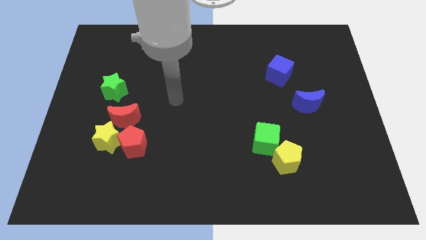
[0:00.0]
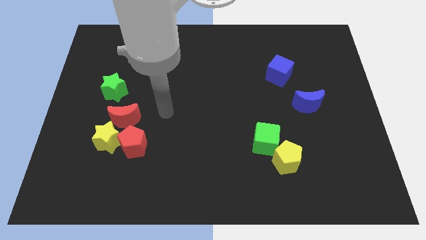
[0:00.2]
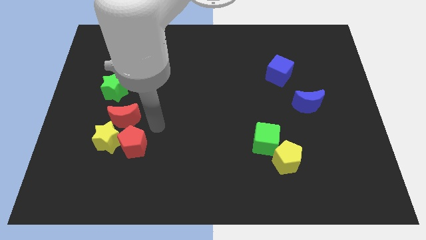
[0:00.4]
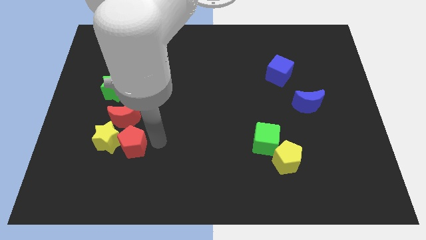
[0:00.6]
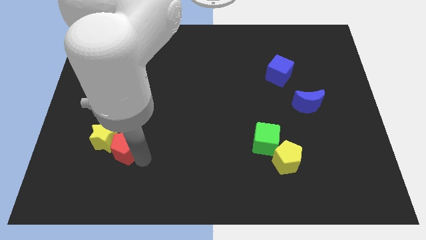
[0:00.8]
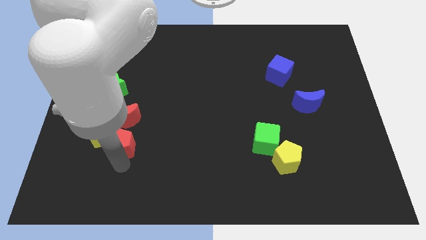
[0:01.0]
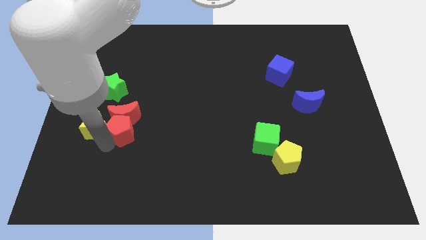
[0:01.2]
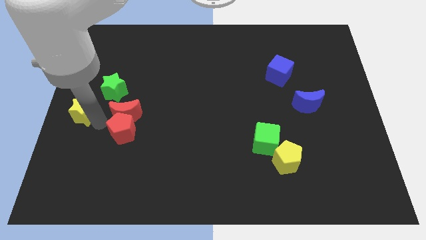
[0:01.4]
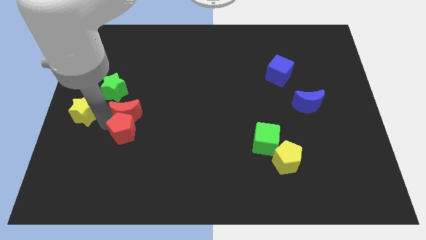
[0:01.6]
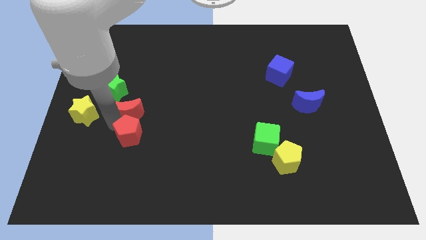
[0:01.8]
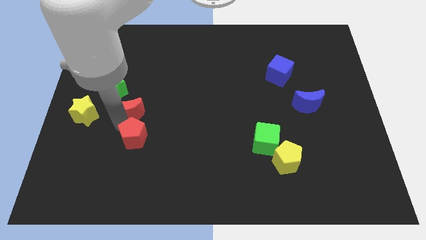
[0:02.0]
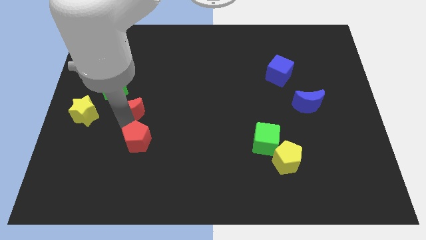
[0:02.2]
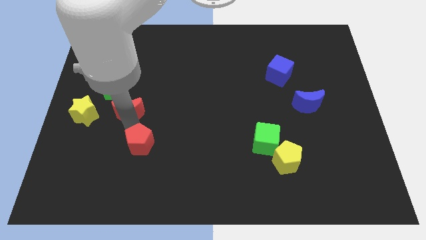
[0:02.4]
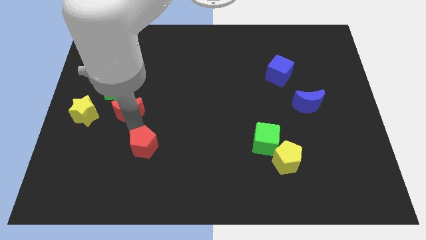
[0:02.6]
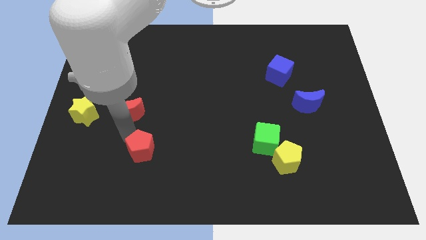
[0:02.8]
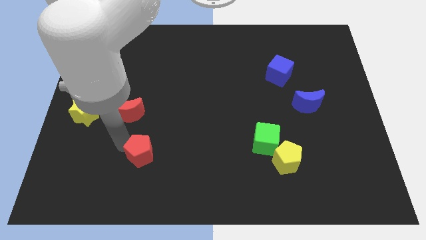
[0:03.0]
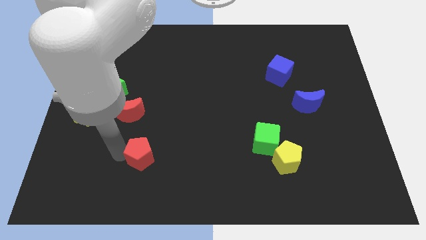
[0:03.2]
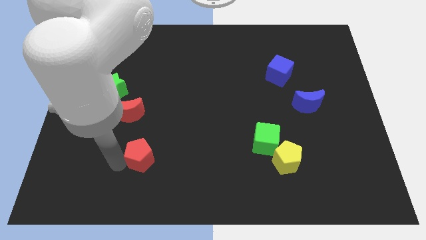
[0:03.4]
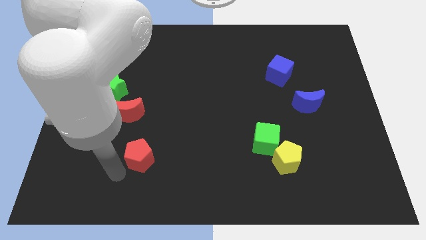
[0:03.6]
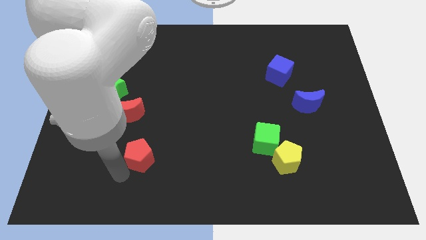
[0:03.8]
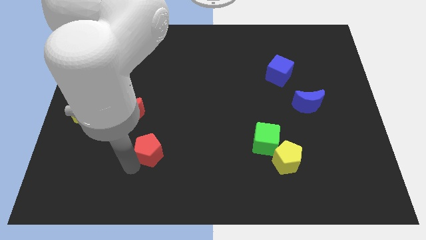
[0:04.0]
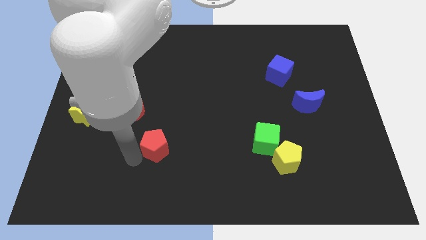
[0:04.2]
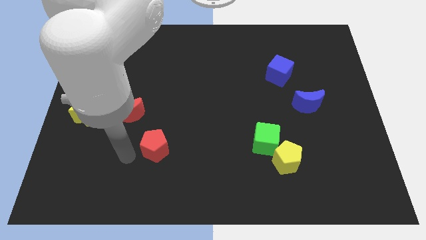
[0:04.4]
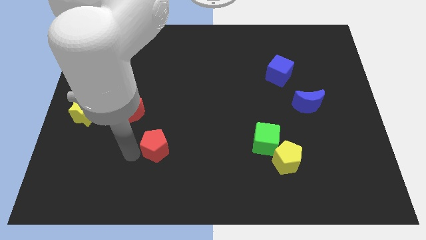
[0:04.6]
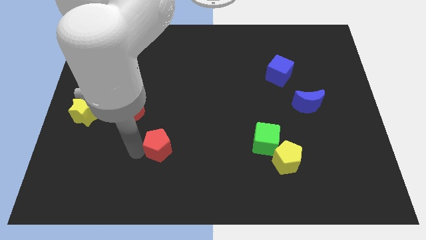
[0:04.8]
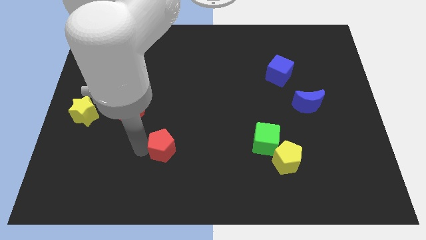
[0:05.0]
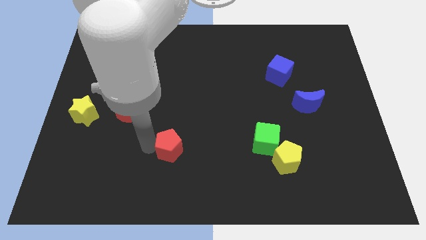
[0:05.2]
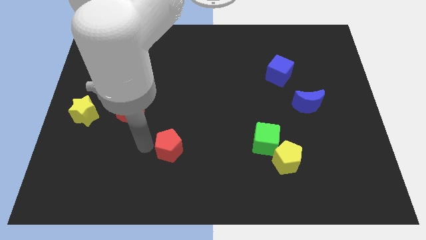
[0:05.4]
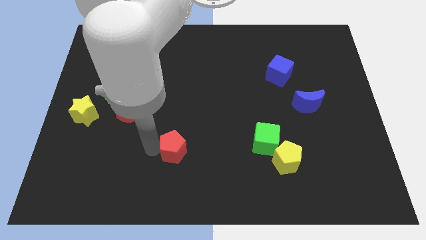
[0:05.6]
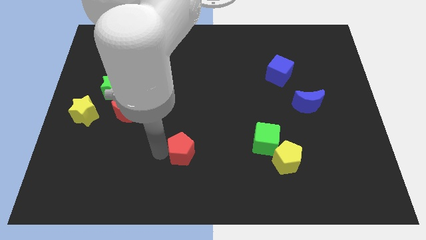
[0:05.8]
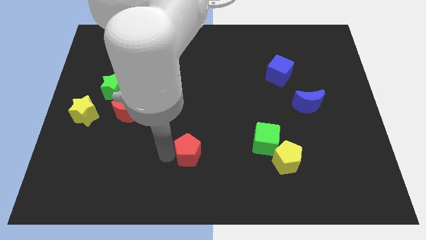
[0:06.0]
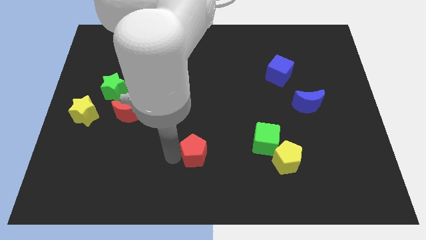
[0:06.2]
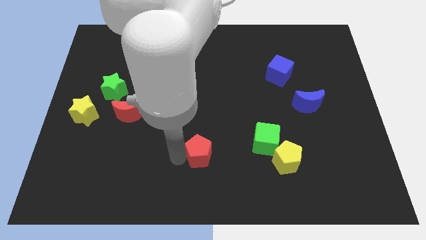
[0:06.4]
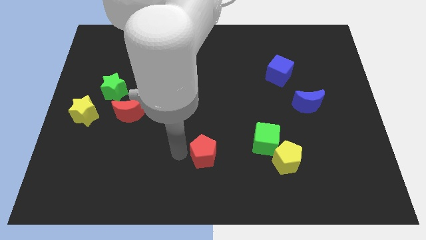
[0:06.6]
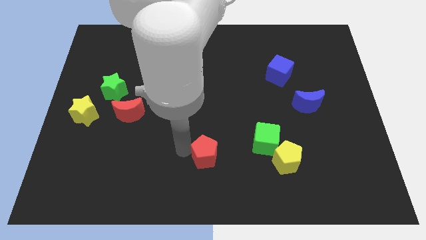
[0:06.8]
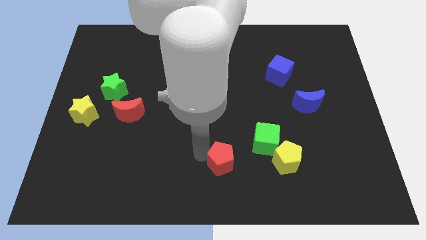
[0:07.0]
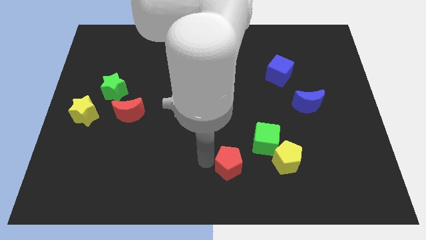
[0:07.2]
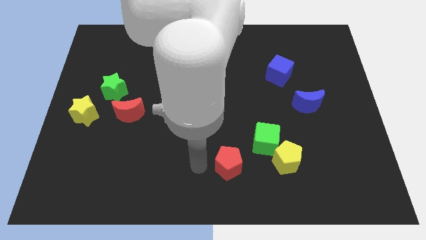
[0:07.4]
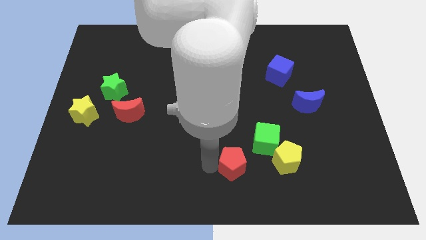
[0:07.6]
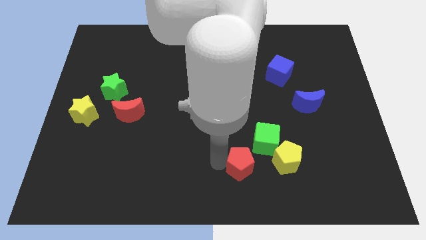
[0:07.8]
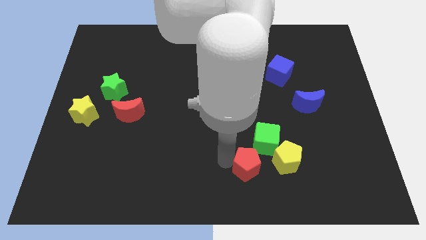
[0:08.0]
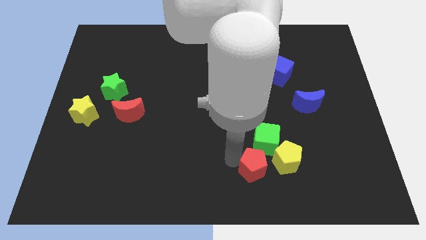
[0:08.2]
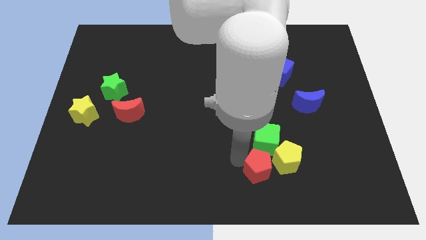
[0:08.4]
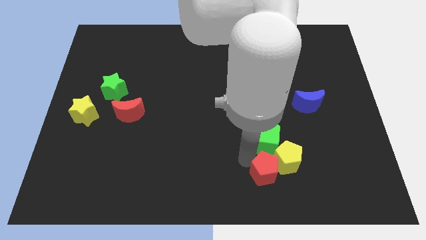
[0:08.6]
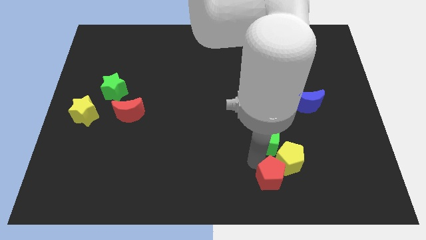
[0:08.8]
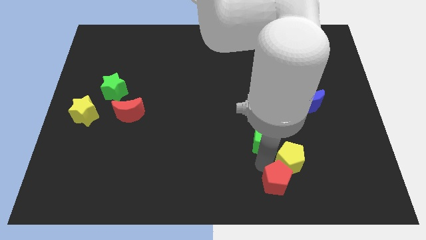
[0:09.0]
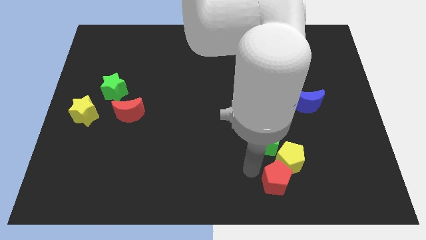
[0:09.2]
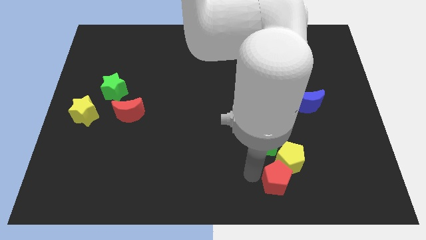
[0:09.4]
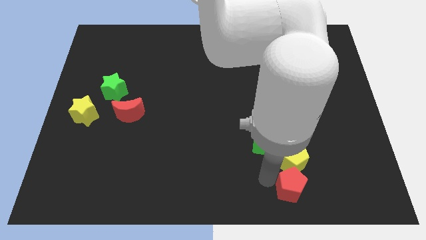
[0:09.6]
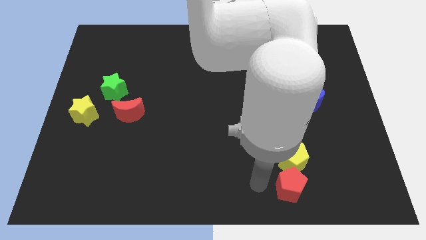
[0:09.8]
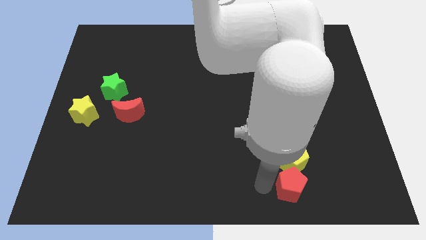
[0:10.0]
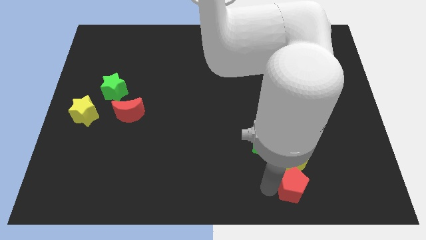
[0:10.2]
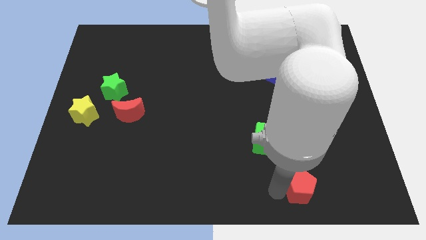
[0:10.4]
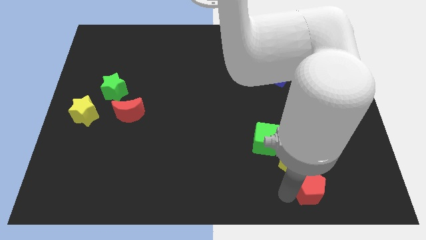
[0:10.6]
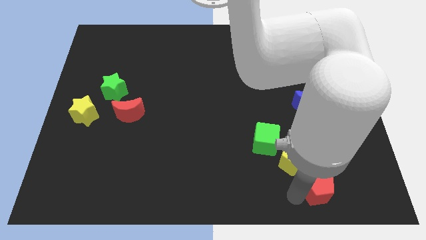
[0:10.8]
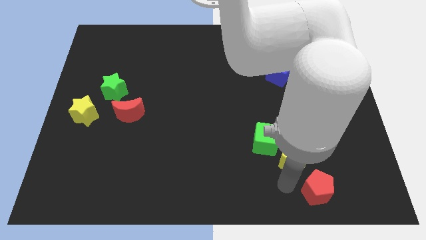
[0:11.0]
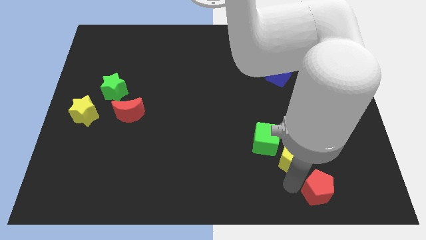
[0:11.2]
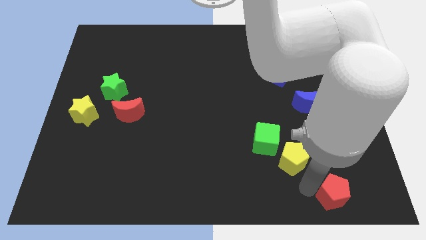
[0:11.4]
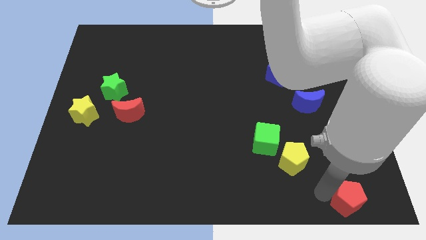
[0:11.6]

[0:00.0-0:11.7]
put the red pentagon to the bottom right corner
